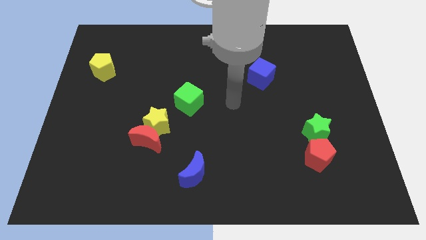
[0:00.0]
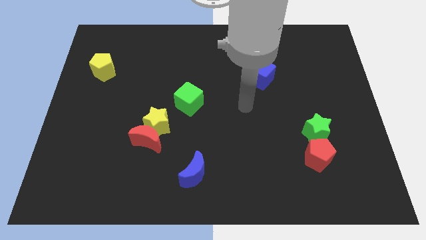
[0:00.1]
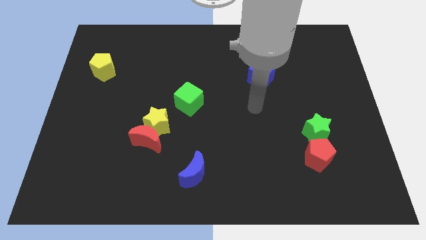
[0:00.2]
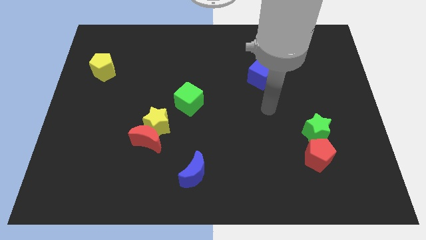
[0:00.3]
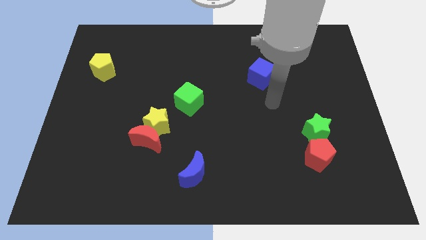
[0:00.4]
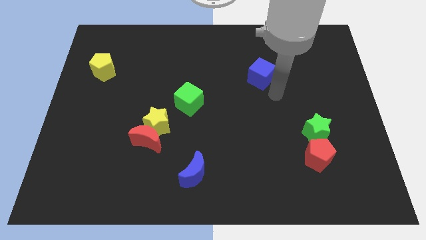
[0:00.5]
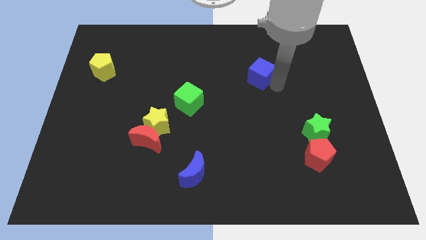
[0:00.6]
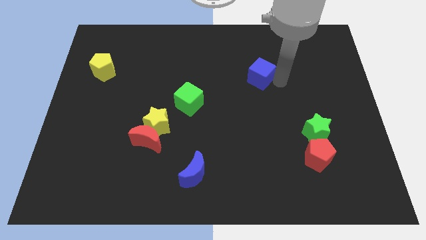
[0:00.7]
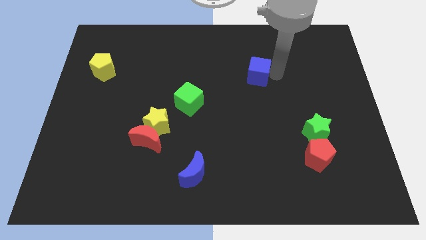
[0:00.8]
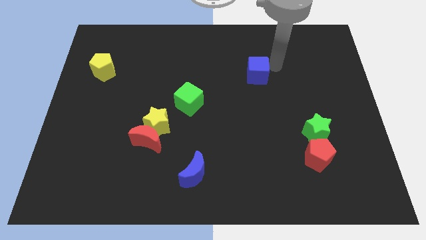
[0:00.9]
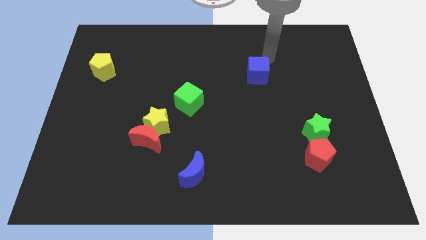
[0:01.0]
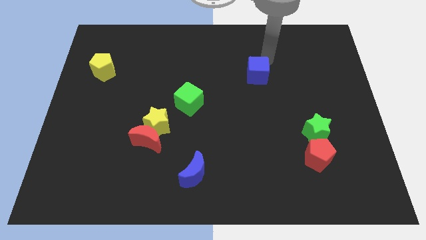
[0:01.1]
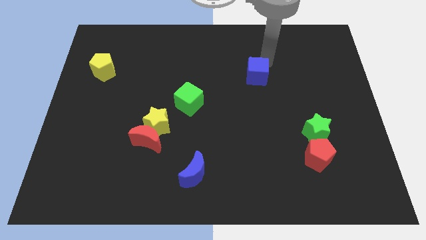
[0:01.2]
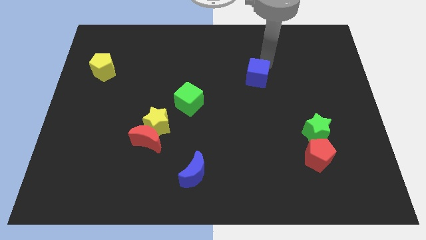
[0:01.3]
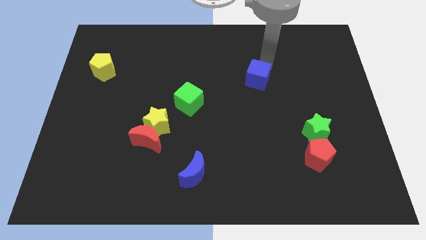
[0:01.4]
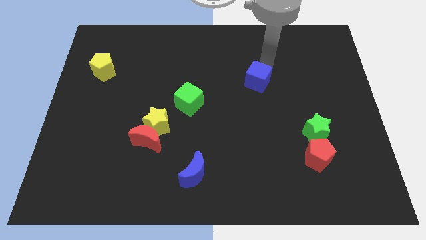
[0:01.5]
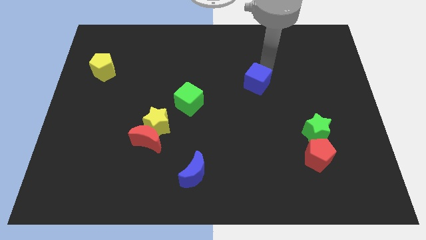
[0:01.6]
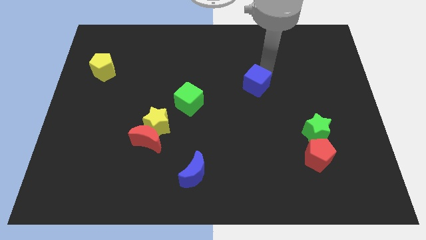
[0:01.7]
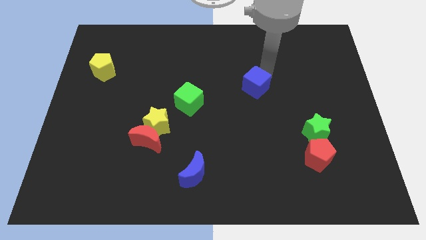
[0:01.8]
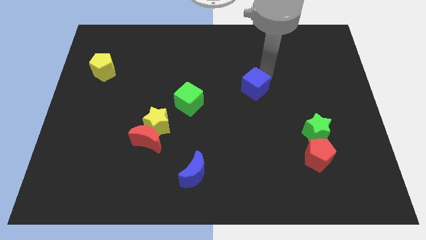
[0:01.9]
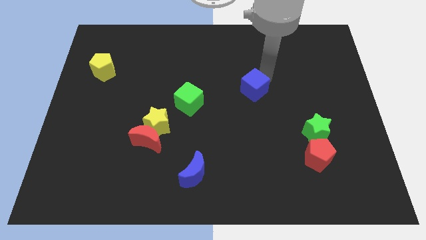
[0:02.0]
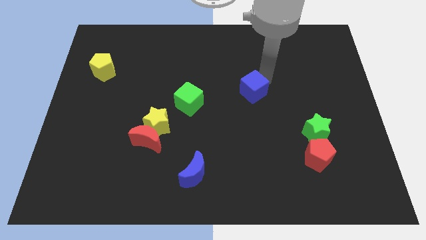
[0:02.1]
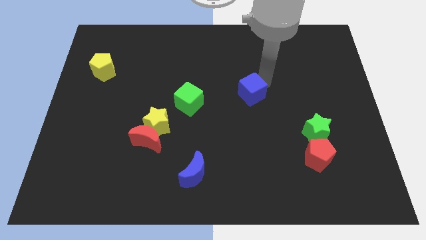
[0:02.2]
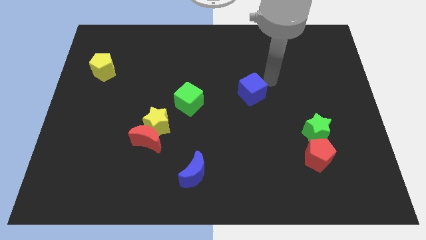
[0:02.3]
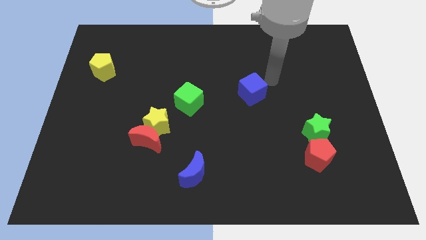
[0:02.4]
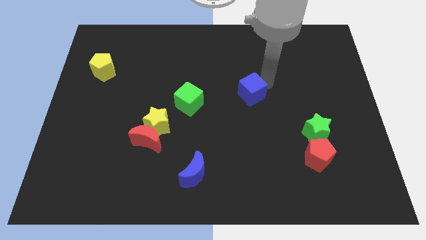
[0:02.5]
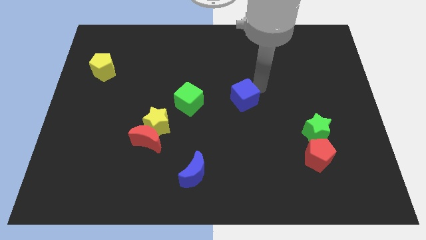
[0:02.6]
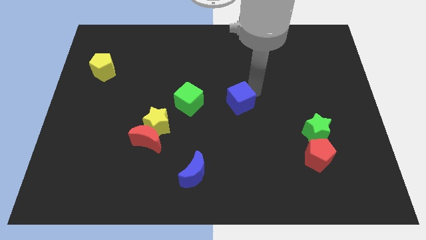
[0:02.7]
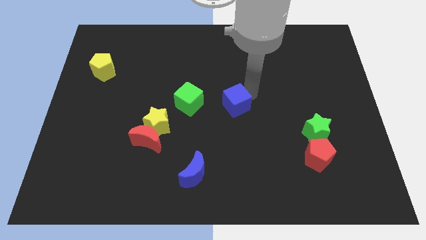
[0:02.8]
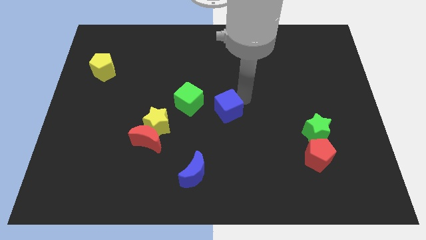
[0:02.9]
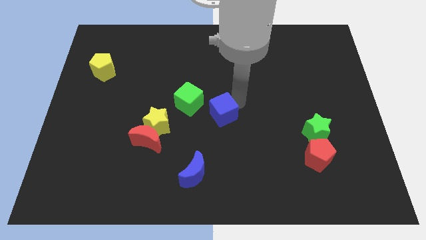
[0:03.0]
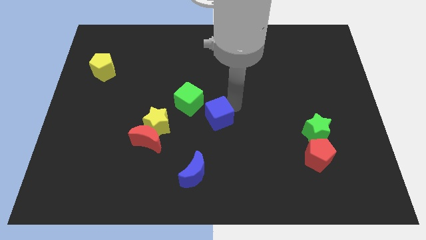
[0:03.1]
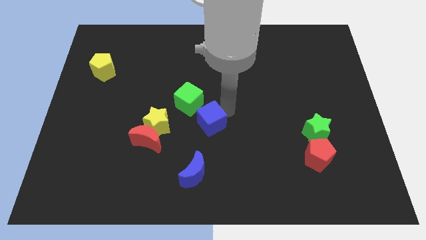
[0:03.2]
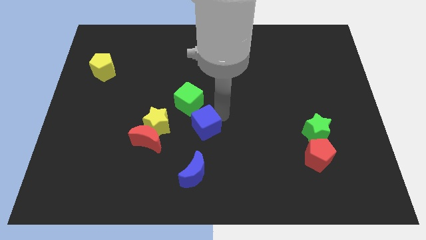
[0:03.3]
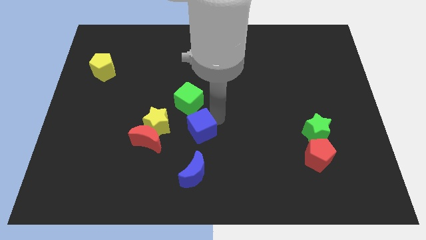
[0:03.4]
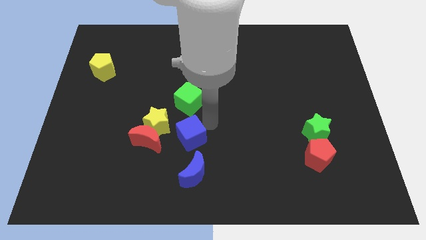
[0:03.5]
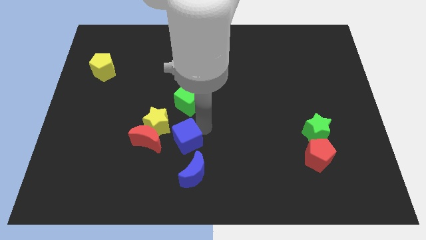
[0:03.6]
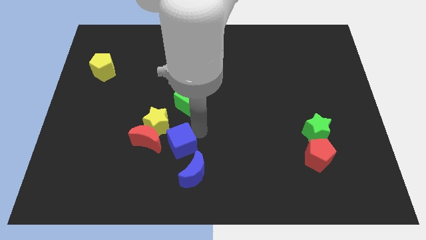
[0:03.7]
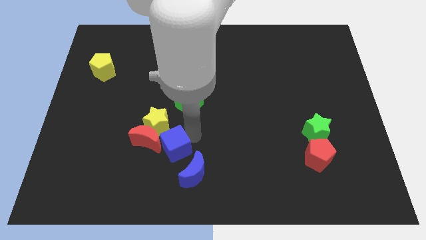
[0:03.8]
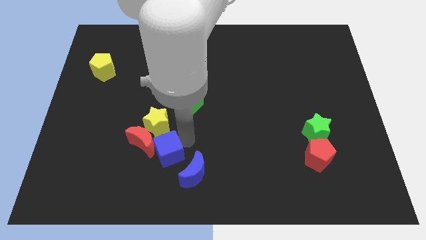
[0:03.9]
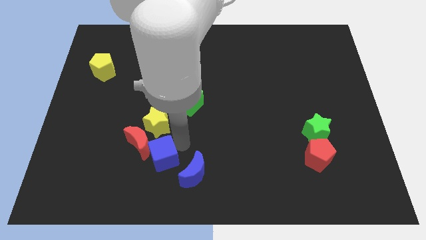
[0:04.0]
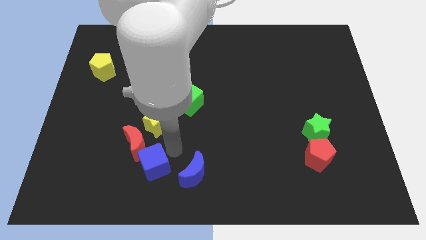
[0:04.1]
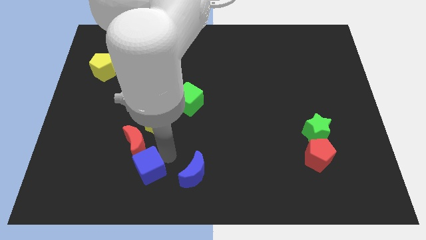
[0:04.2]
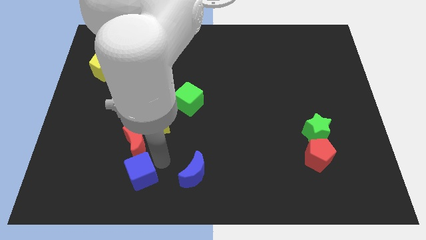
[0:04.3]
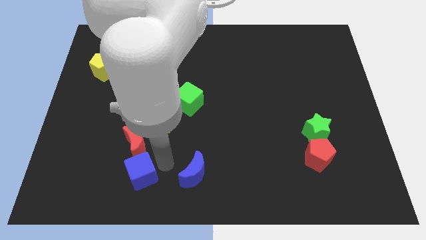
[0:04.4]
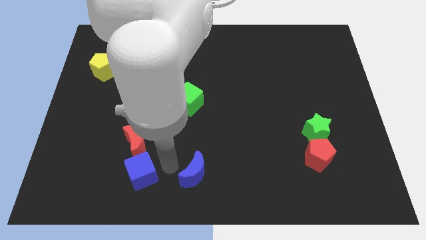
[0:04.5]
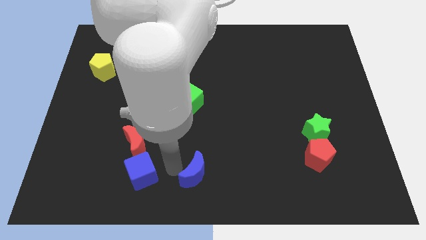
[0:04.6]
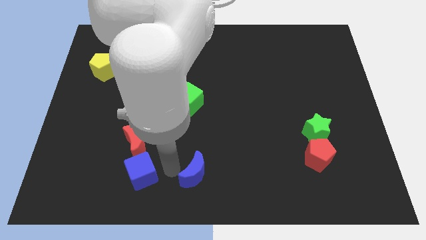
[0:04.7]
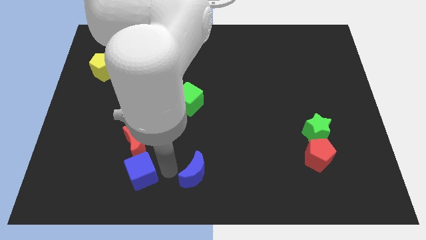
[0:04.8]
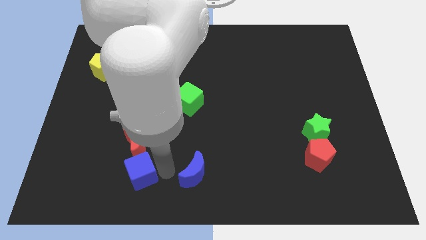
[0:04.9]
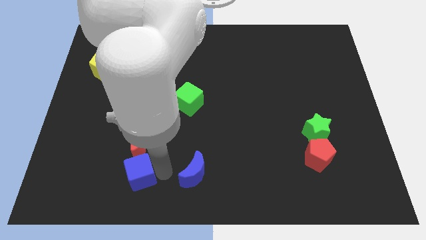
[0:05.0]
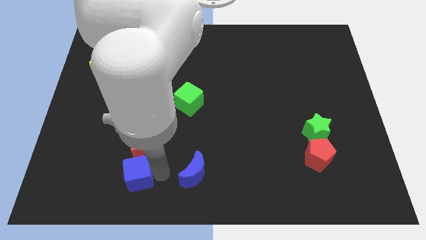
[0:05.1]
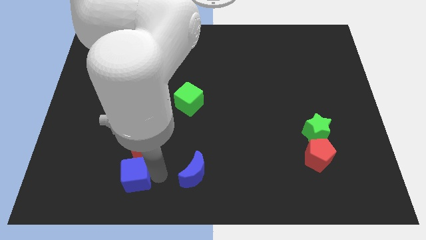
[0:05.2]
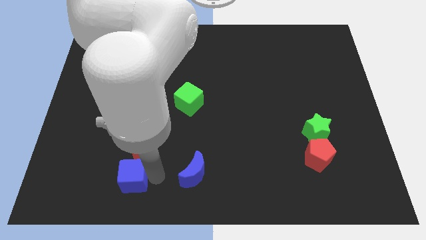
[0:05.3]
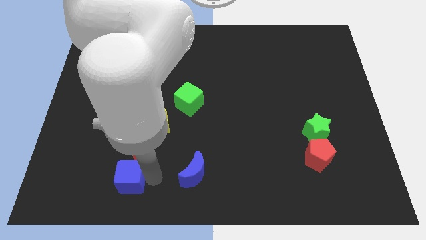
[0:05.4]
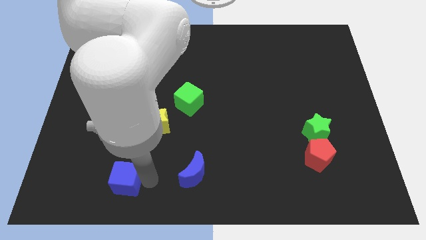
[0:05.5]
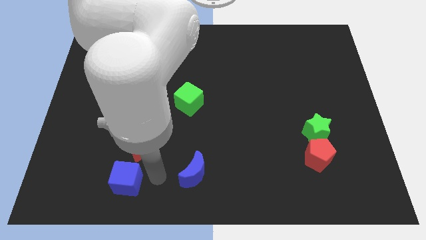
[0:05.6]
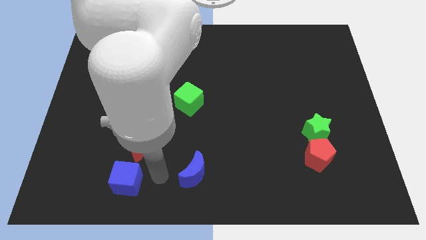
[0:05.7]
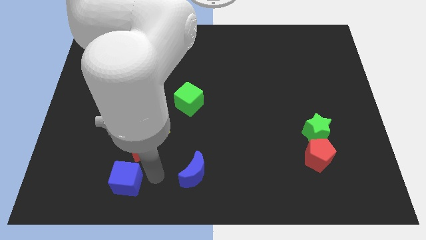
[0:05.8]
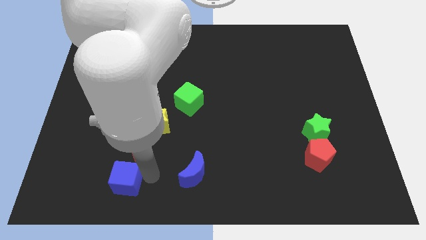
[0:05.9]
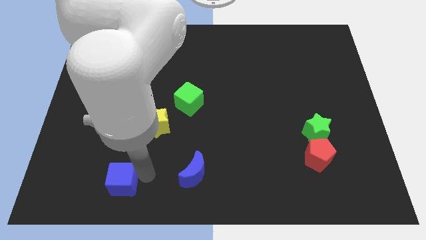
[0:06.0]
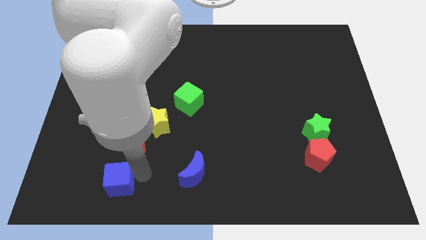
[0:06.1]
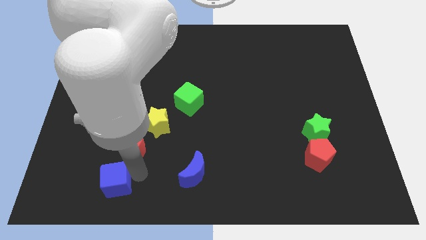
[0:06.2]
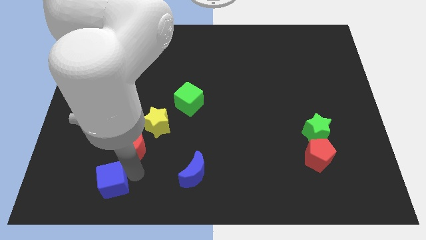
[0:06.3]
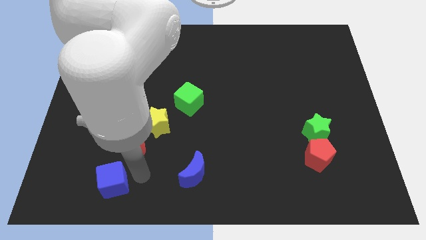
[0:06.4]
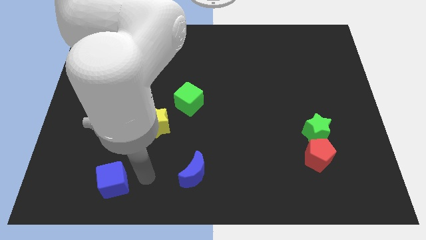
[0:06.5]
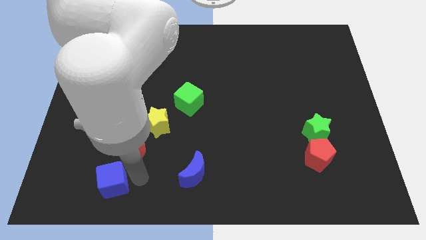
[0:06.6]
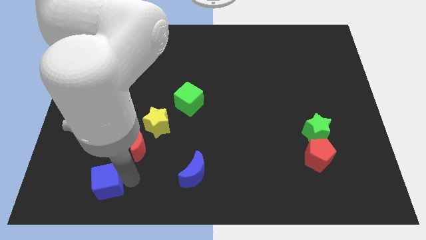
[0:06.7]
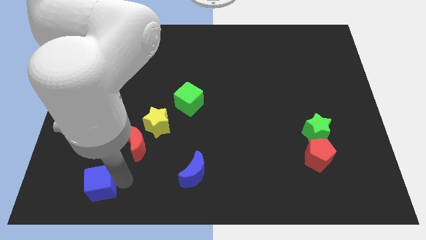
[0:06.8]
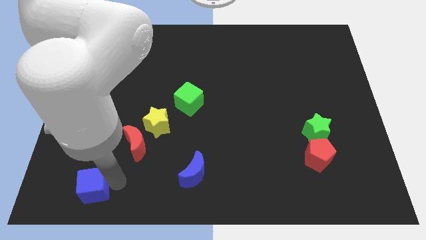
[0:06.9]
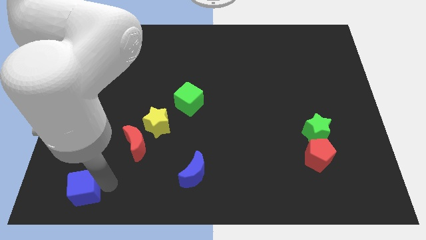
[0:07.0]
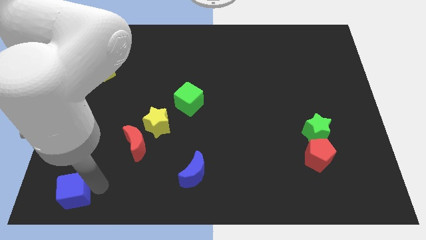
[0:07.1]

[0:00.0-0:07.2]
slide the blue cube to the bottom left of the board
